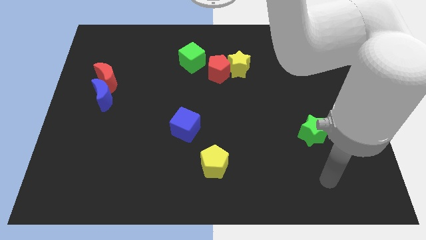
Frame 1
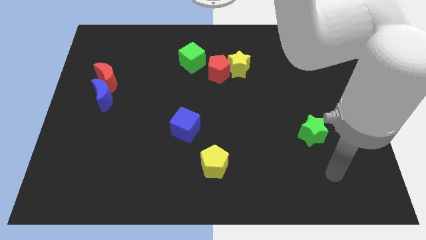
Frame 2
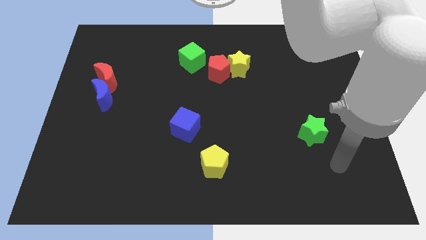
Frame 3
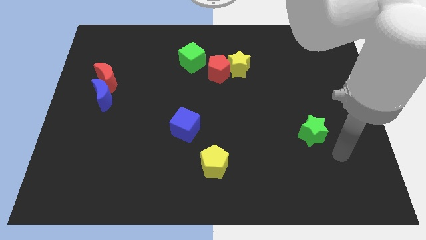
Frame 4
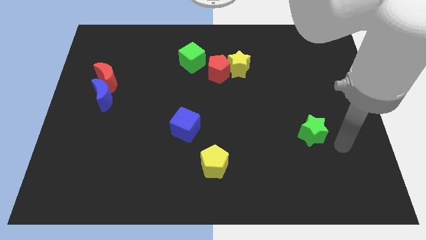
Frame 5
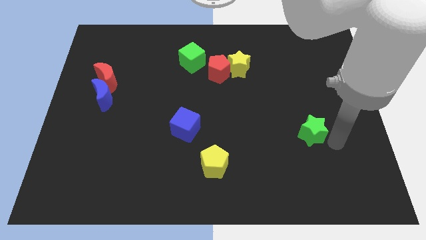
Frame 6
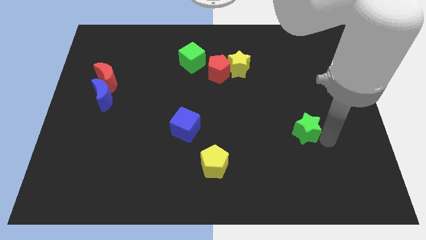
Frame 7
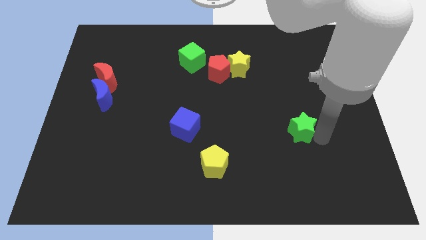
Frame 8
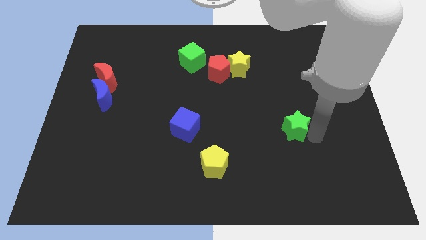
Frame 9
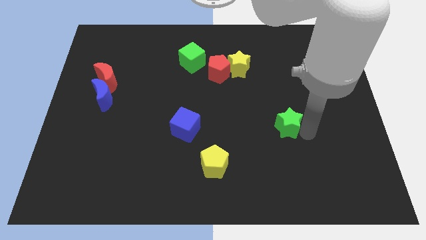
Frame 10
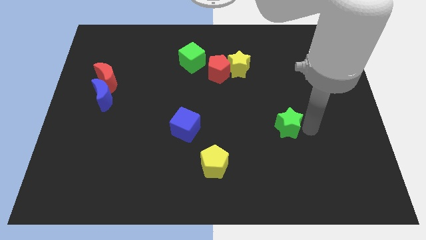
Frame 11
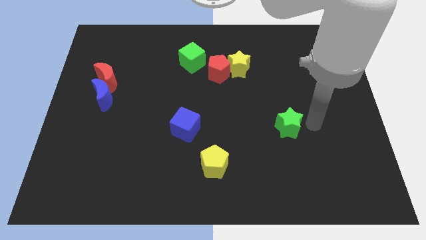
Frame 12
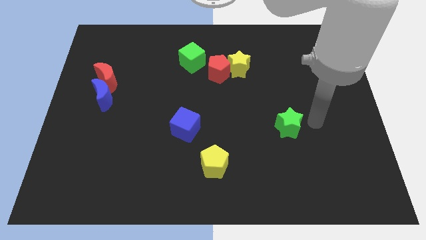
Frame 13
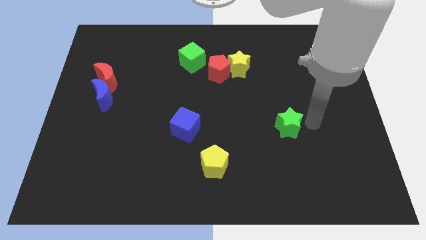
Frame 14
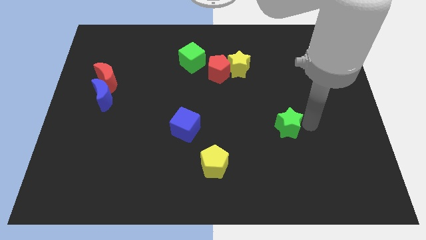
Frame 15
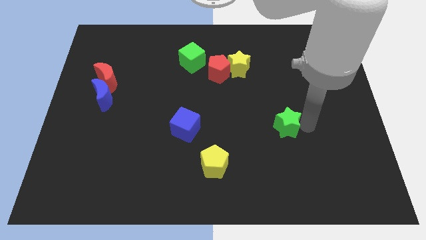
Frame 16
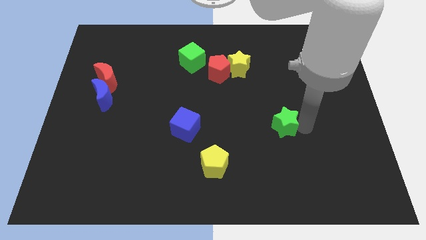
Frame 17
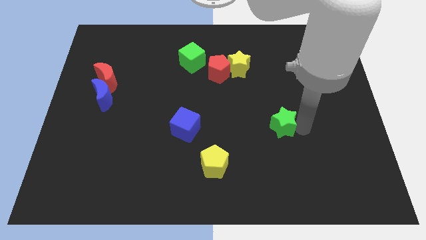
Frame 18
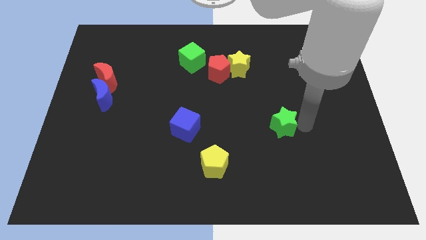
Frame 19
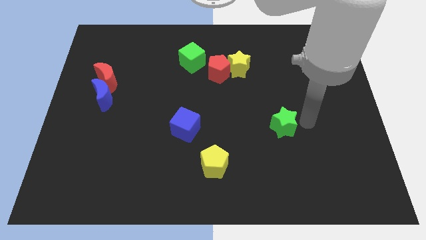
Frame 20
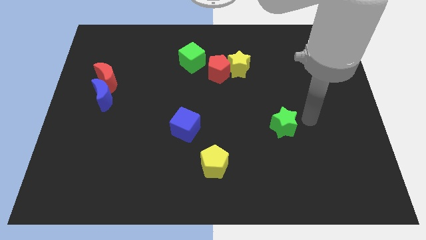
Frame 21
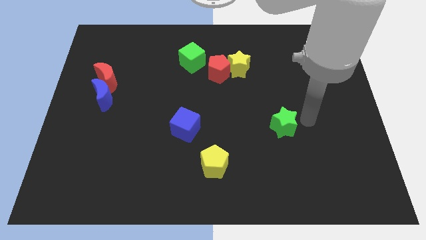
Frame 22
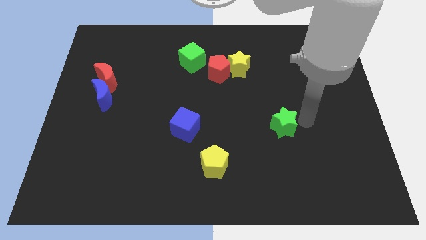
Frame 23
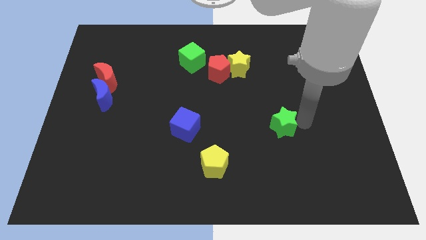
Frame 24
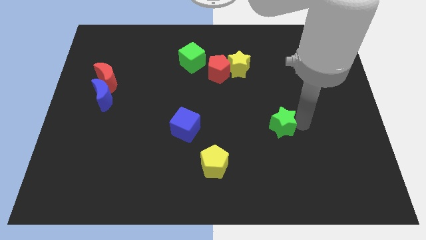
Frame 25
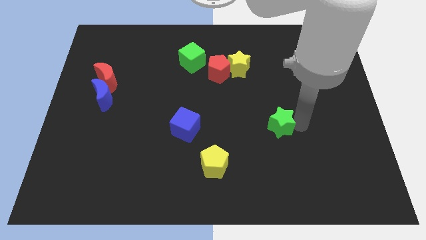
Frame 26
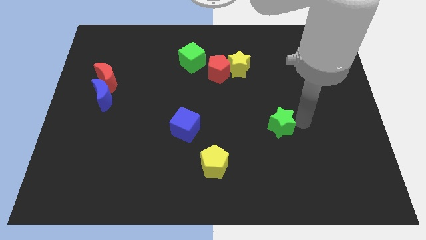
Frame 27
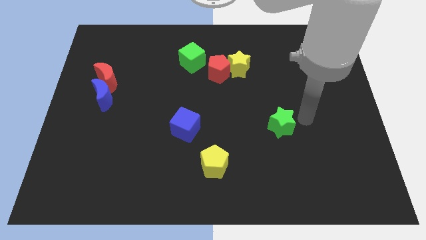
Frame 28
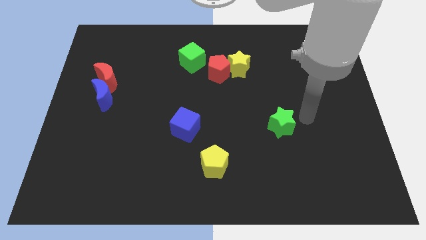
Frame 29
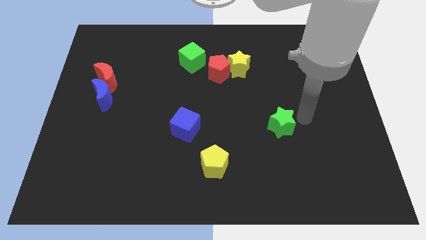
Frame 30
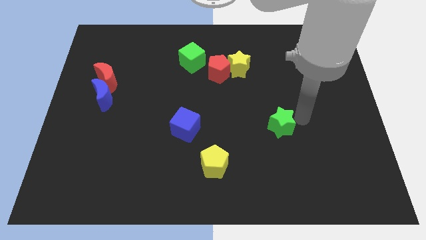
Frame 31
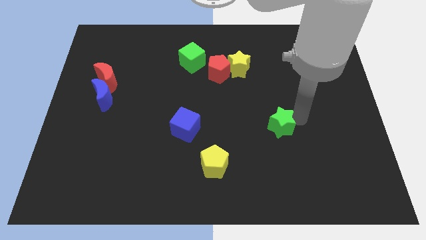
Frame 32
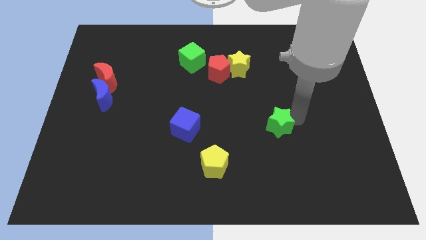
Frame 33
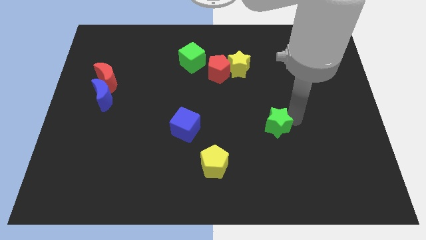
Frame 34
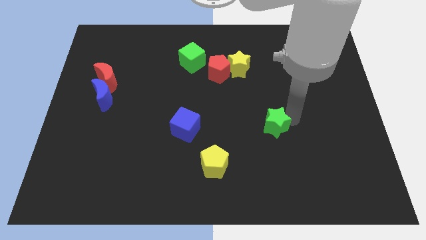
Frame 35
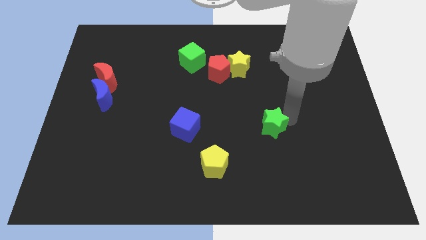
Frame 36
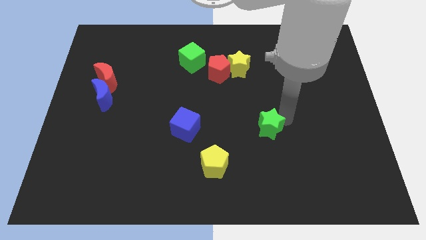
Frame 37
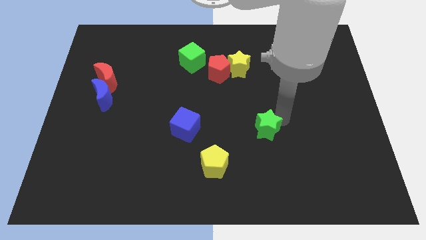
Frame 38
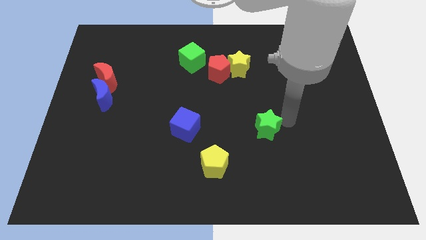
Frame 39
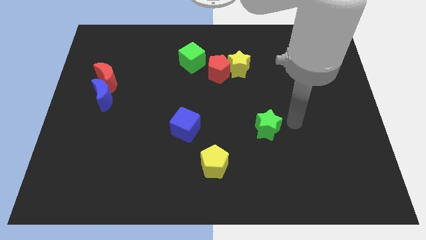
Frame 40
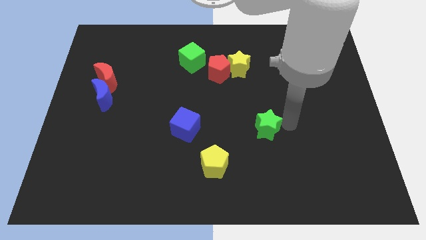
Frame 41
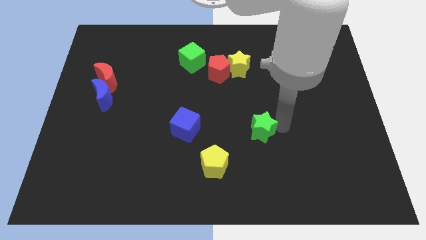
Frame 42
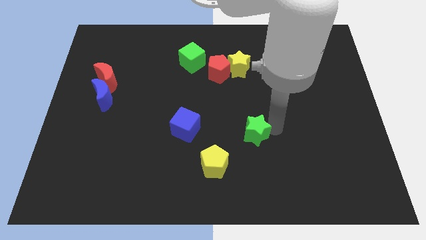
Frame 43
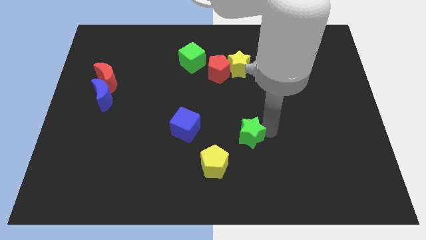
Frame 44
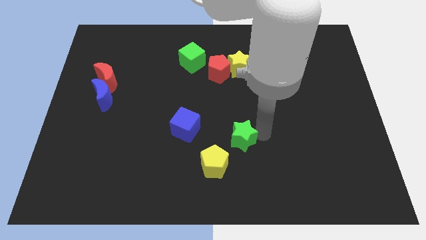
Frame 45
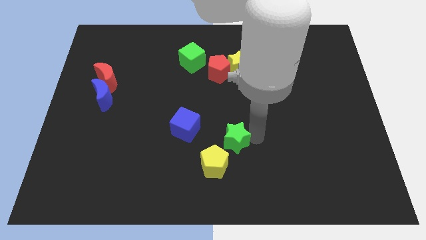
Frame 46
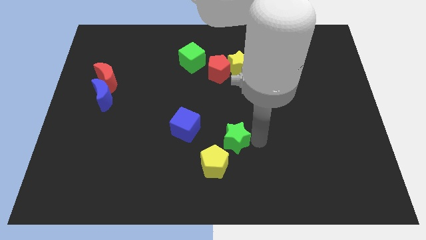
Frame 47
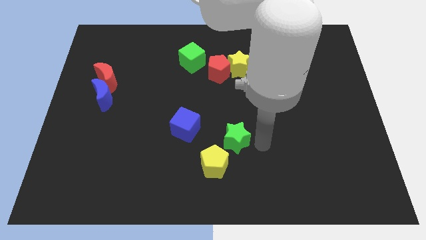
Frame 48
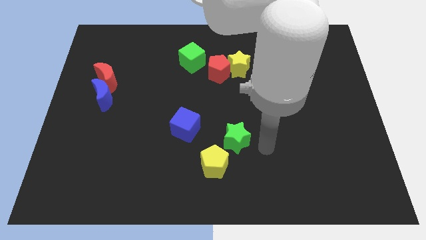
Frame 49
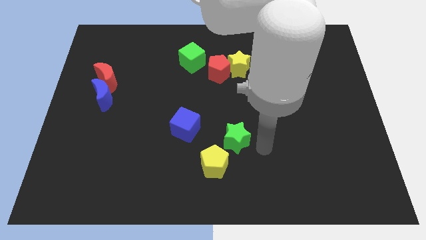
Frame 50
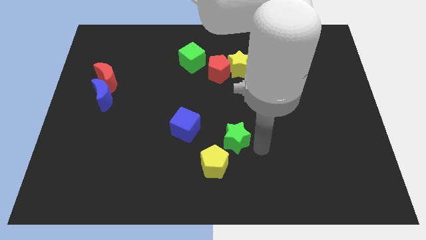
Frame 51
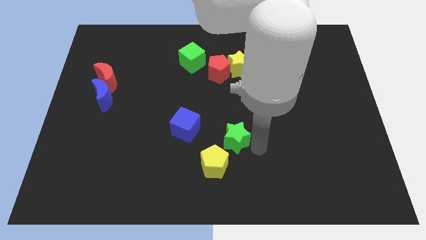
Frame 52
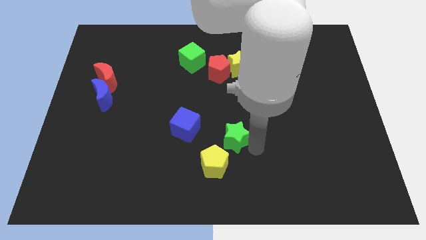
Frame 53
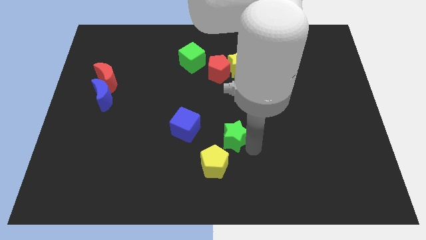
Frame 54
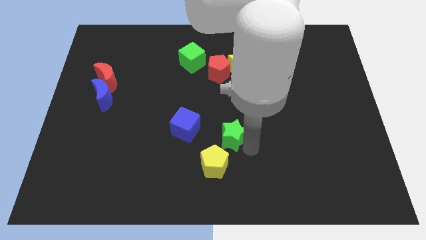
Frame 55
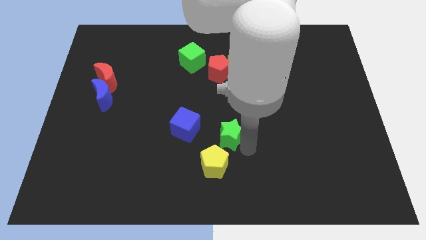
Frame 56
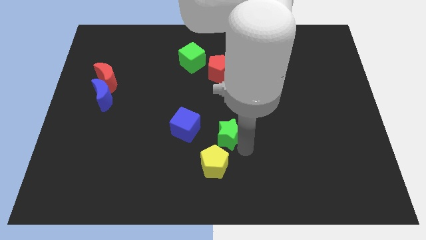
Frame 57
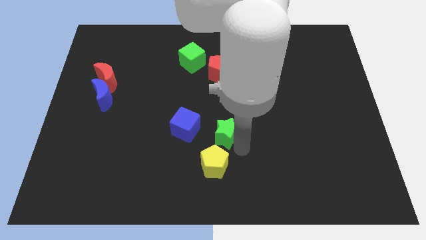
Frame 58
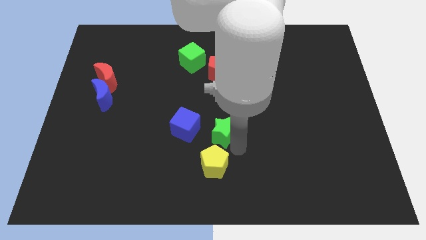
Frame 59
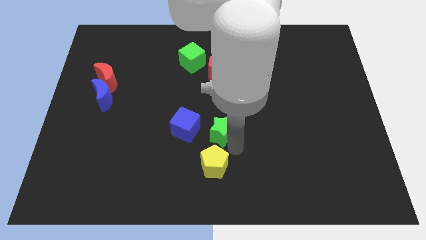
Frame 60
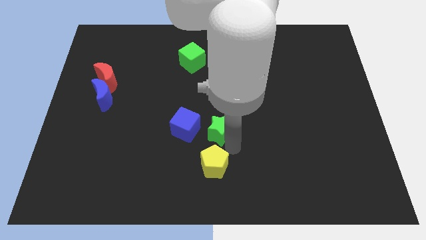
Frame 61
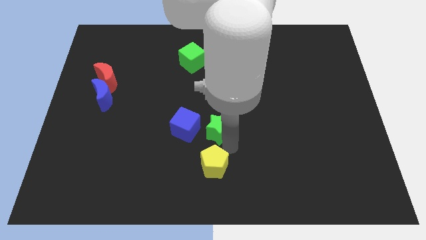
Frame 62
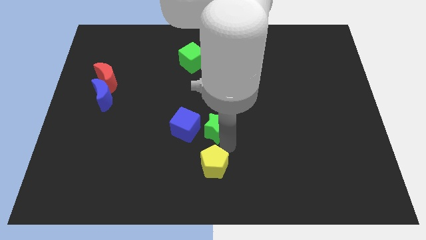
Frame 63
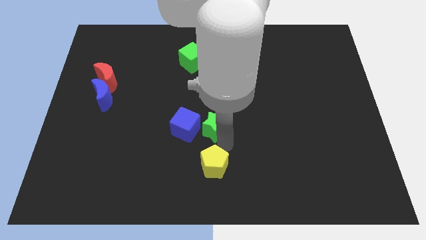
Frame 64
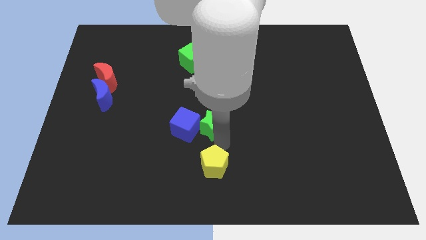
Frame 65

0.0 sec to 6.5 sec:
push the green star next to the blue cube
